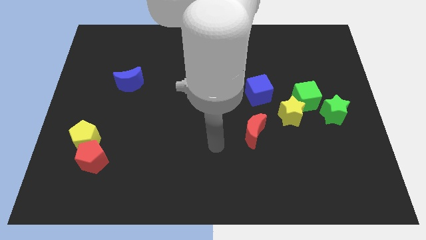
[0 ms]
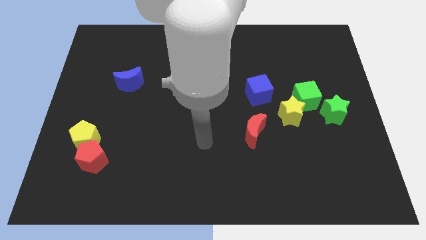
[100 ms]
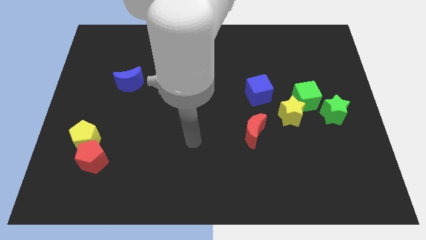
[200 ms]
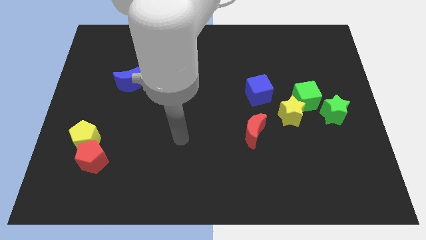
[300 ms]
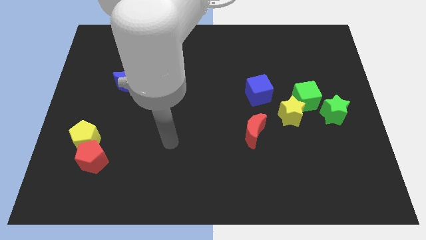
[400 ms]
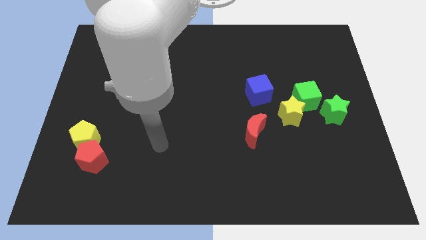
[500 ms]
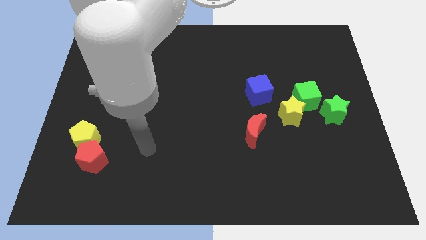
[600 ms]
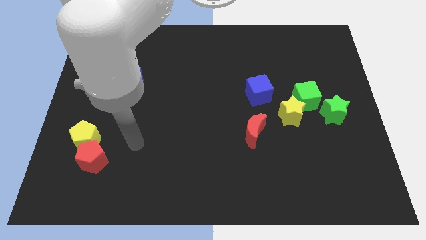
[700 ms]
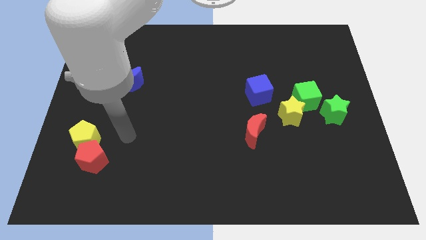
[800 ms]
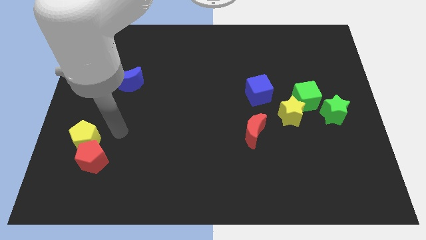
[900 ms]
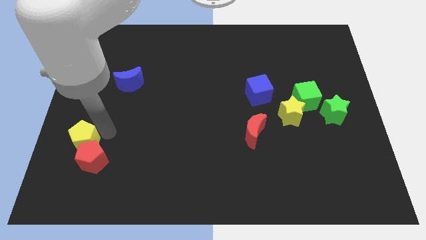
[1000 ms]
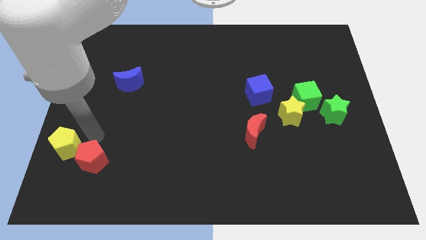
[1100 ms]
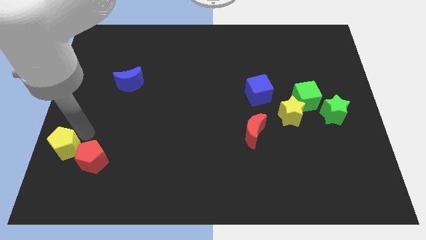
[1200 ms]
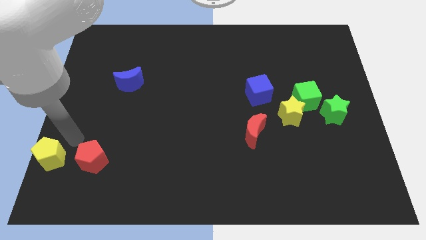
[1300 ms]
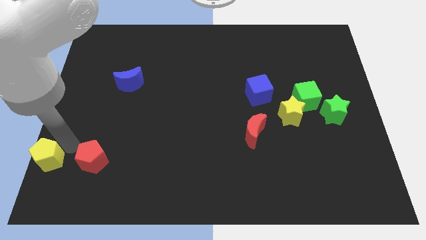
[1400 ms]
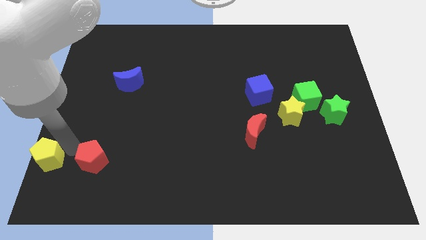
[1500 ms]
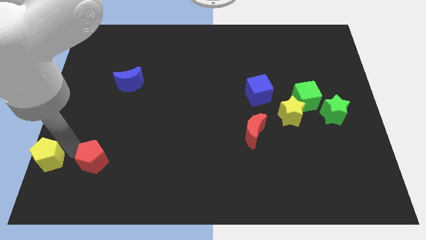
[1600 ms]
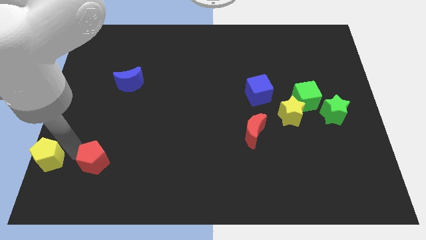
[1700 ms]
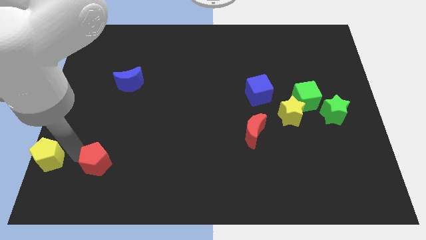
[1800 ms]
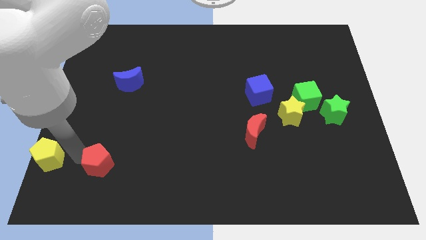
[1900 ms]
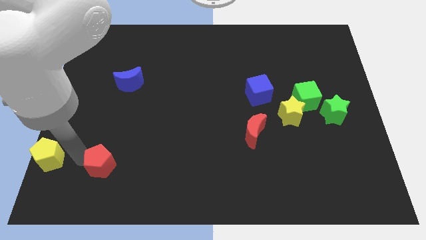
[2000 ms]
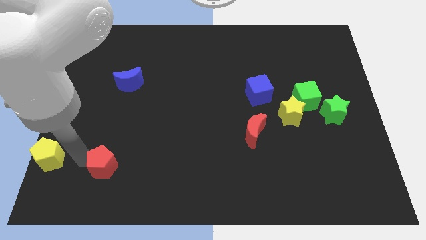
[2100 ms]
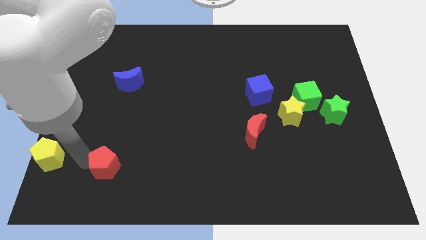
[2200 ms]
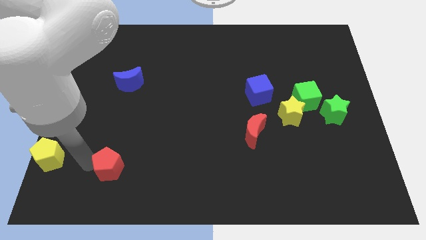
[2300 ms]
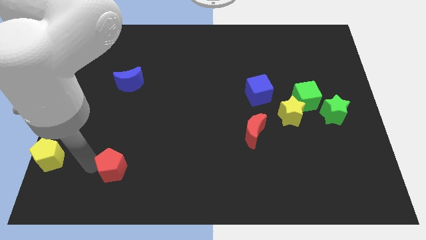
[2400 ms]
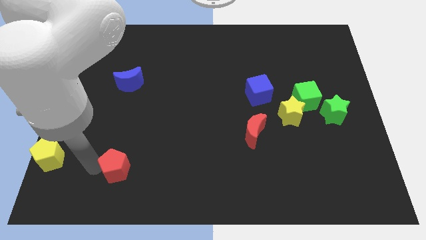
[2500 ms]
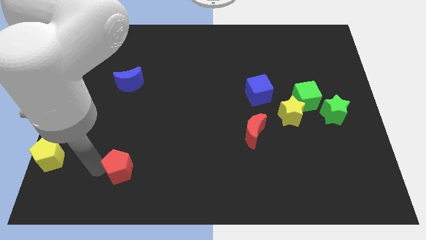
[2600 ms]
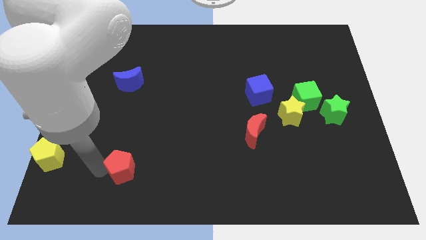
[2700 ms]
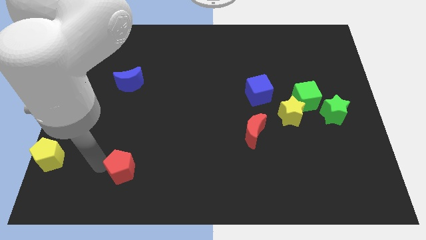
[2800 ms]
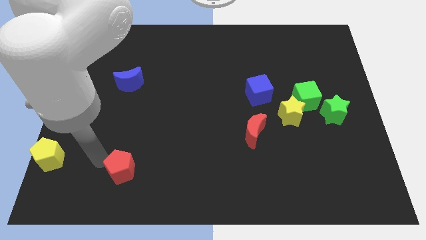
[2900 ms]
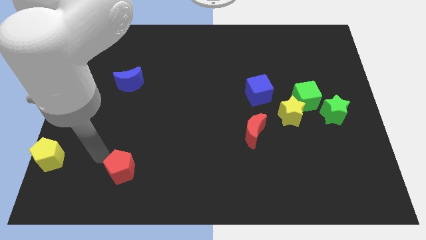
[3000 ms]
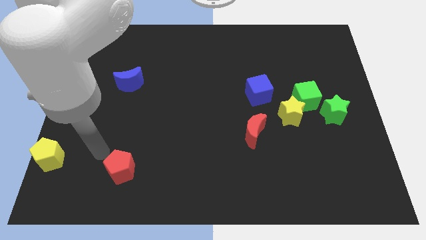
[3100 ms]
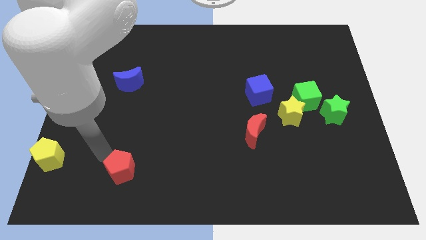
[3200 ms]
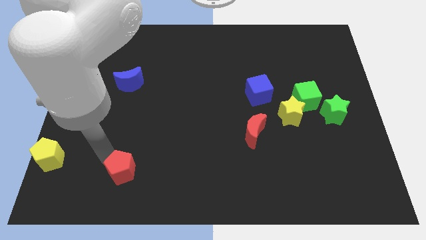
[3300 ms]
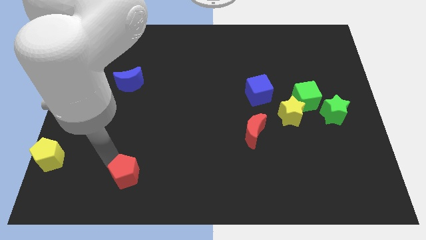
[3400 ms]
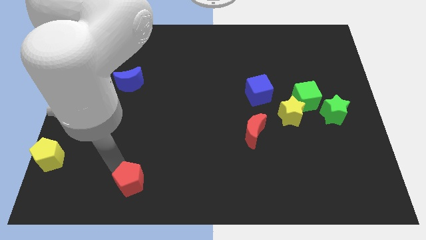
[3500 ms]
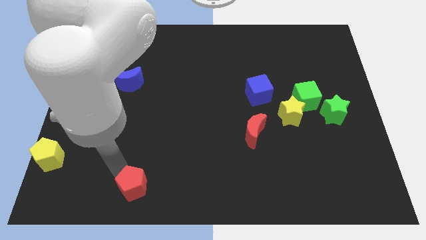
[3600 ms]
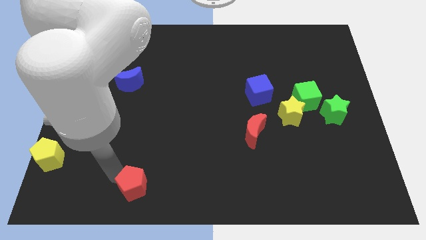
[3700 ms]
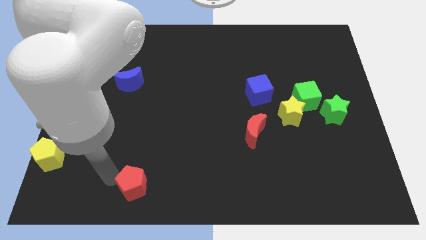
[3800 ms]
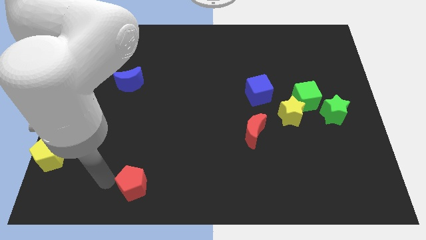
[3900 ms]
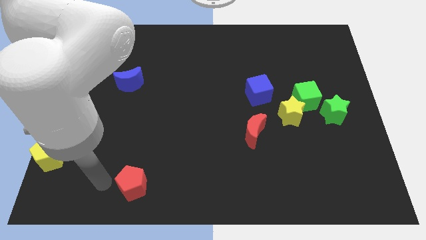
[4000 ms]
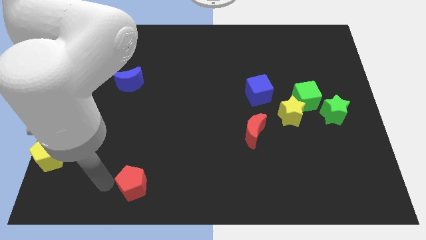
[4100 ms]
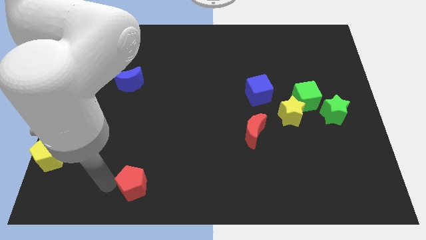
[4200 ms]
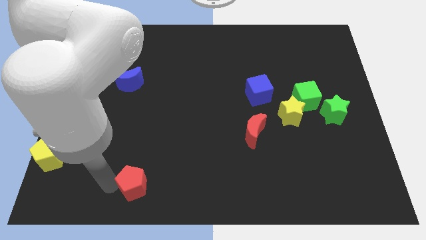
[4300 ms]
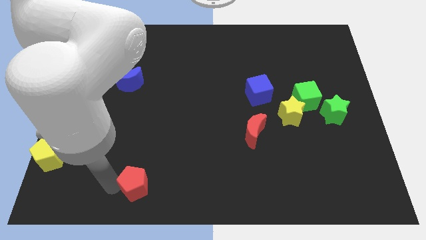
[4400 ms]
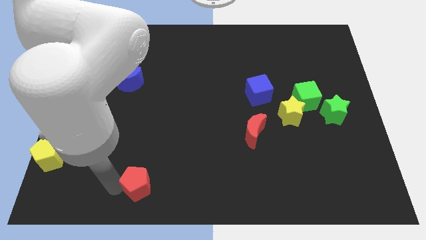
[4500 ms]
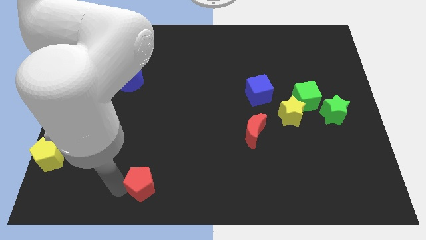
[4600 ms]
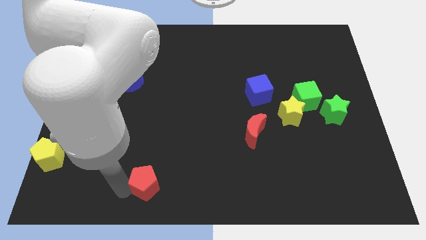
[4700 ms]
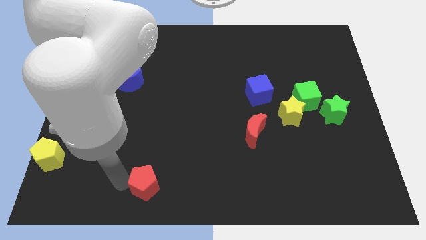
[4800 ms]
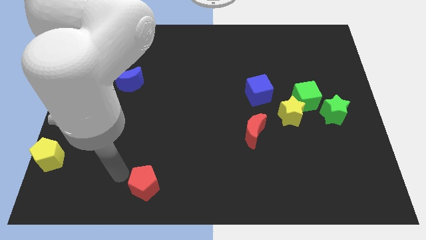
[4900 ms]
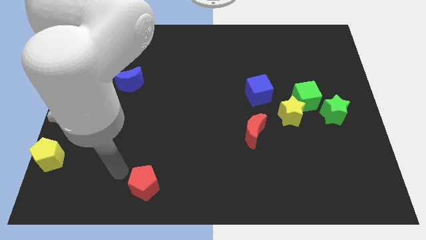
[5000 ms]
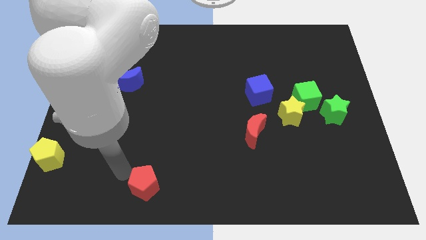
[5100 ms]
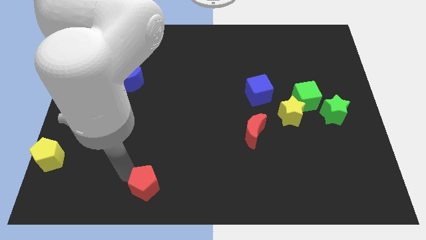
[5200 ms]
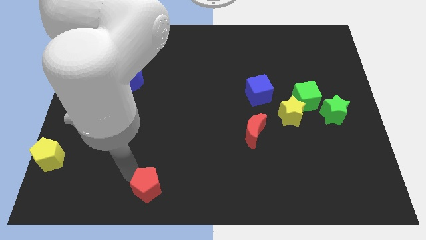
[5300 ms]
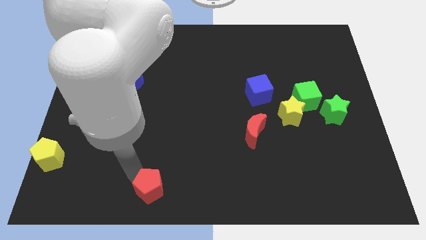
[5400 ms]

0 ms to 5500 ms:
put the red pentagon to the bottom side

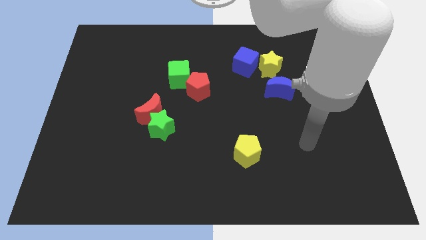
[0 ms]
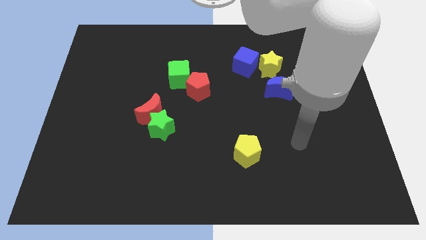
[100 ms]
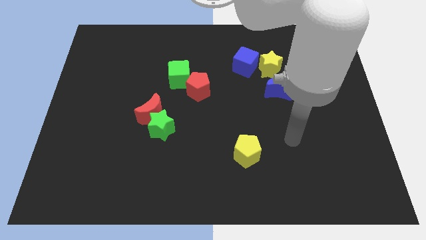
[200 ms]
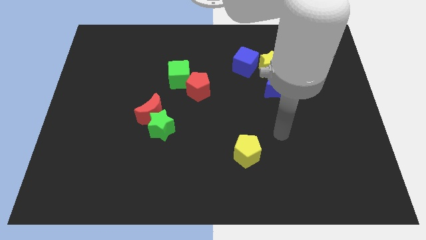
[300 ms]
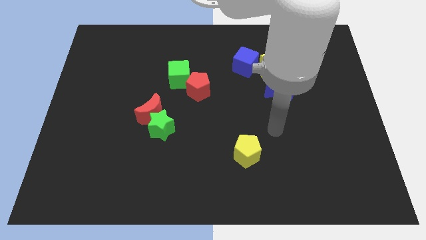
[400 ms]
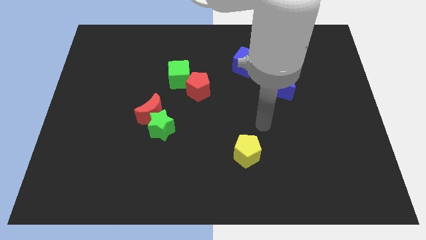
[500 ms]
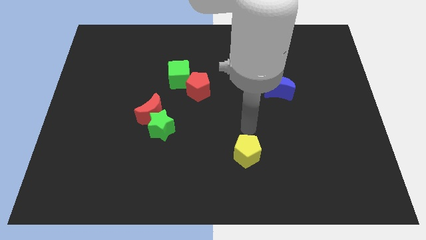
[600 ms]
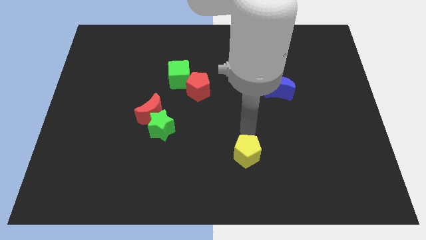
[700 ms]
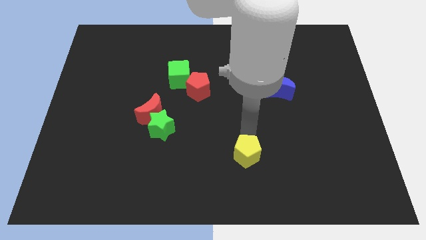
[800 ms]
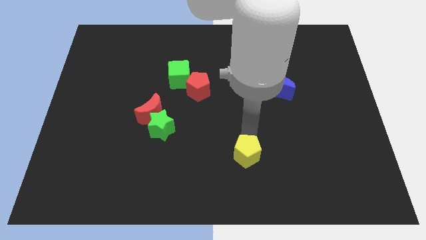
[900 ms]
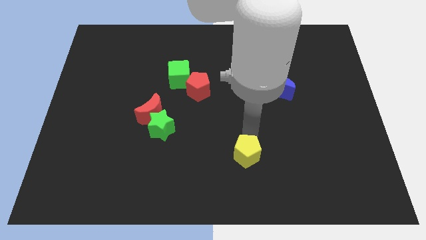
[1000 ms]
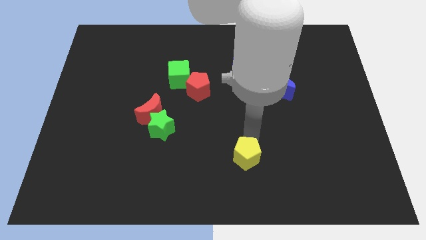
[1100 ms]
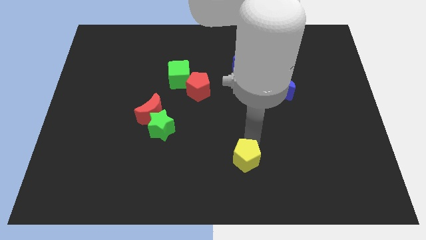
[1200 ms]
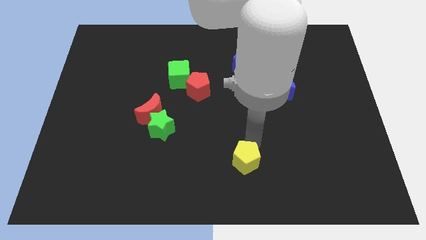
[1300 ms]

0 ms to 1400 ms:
move the yellow pentagon to the bottom side
